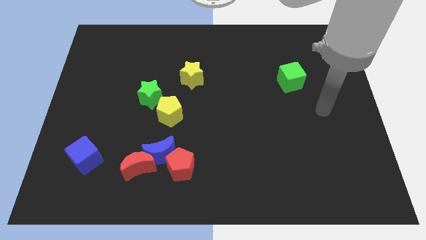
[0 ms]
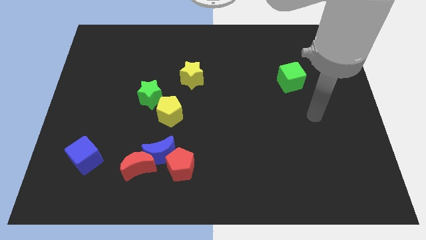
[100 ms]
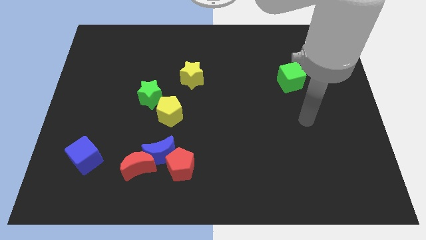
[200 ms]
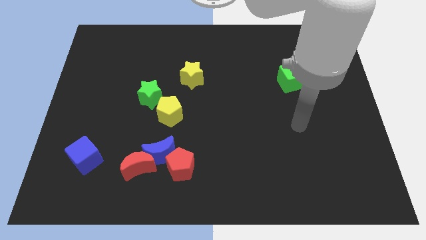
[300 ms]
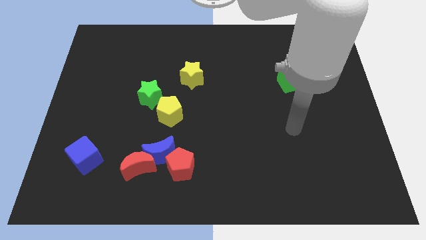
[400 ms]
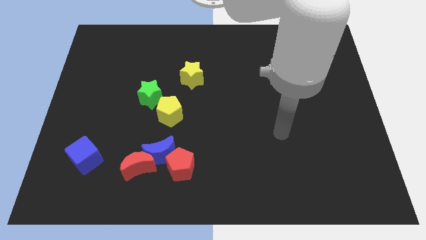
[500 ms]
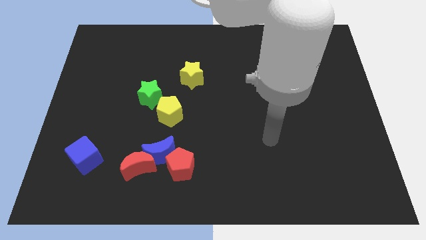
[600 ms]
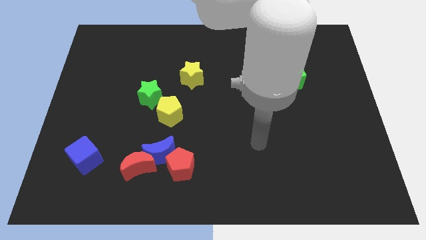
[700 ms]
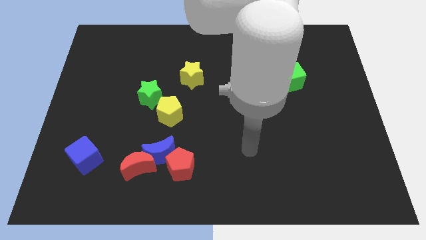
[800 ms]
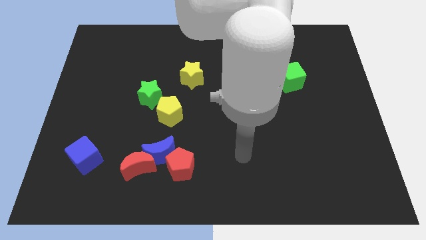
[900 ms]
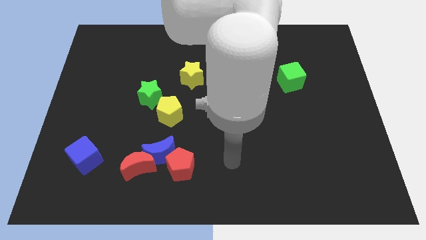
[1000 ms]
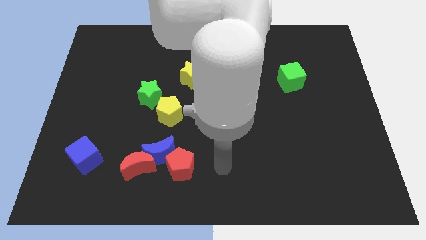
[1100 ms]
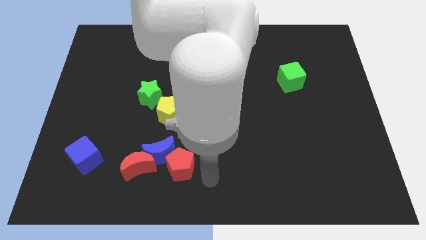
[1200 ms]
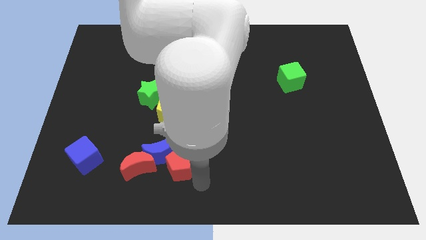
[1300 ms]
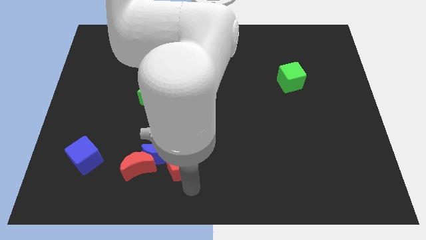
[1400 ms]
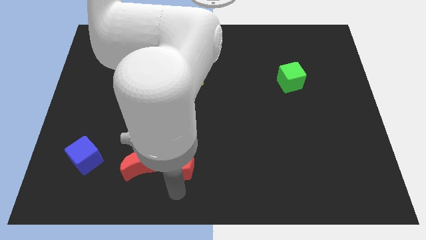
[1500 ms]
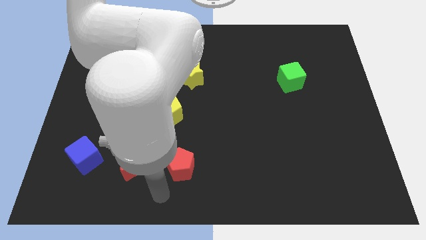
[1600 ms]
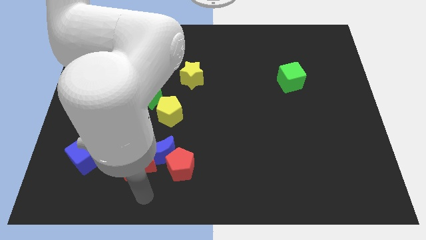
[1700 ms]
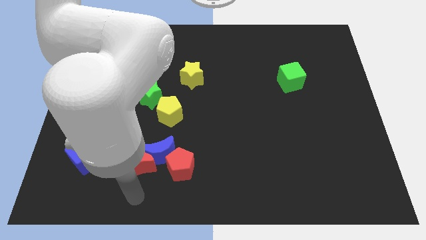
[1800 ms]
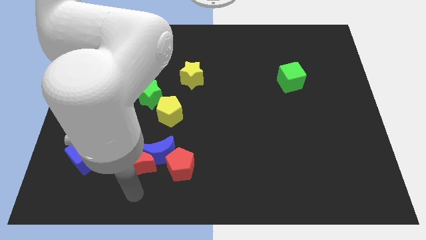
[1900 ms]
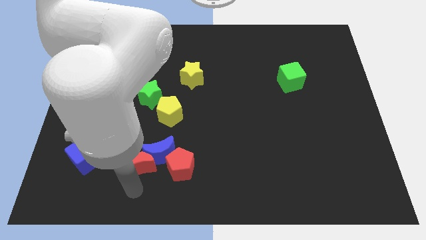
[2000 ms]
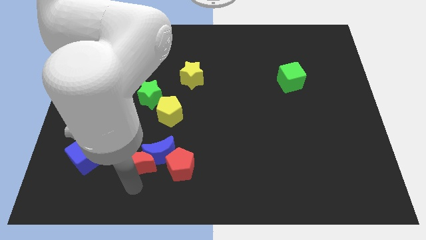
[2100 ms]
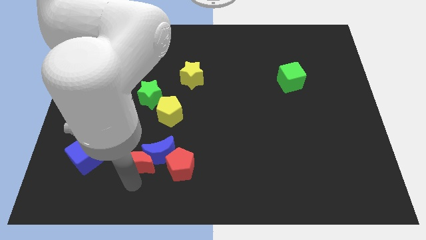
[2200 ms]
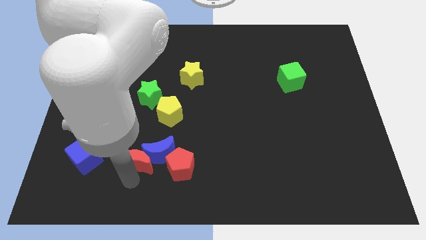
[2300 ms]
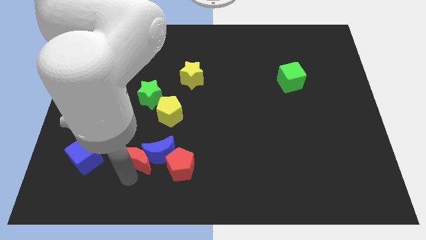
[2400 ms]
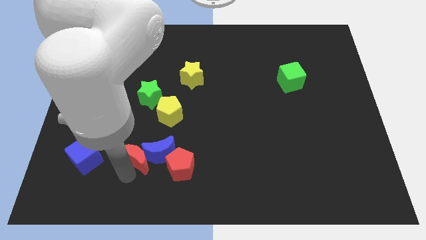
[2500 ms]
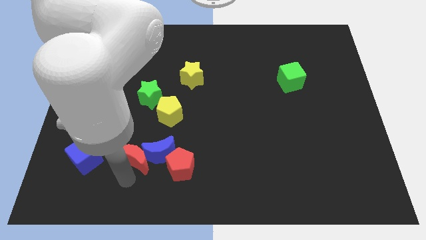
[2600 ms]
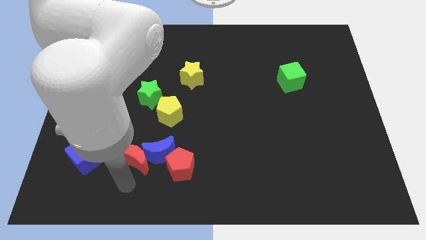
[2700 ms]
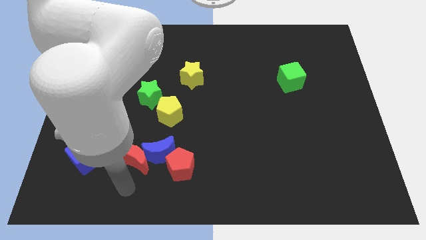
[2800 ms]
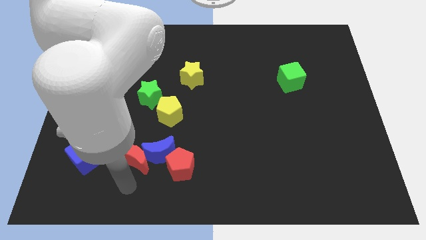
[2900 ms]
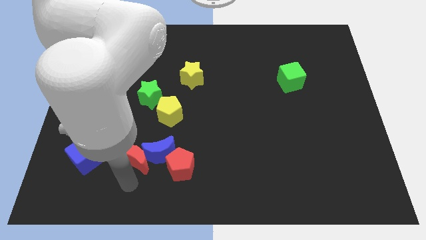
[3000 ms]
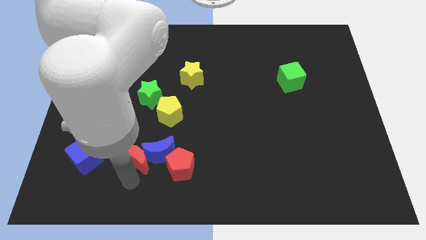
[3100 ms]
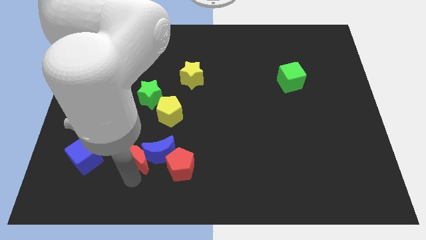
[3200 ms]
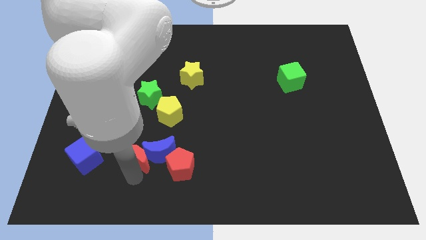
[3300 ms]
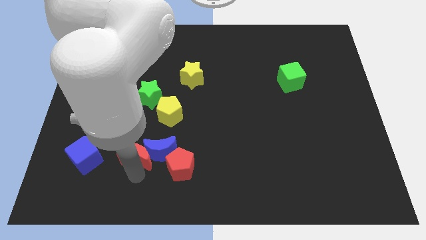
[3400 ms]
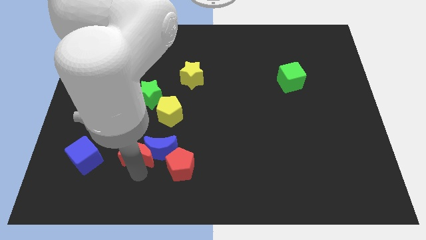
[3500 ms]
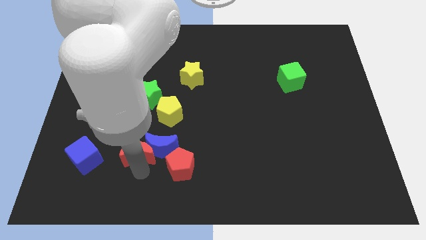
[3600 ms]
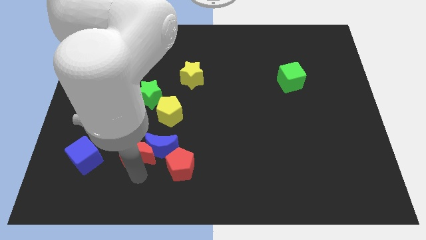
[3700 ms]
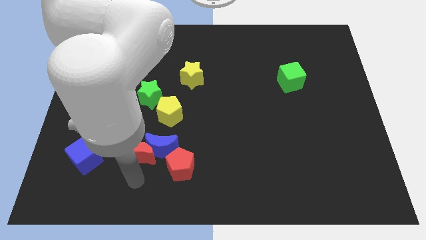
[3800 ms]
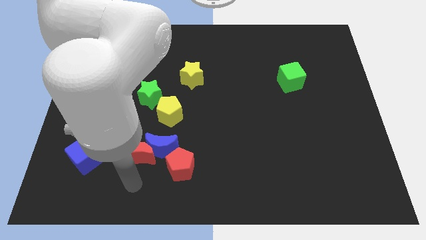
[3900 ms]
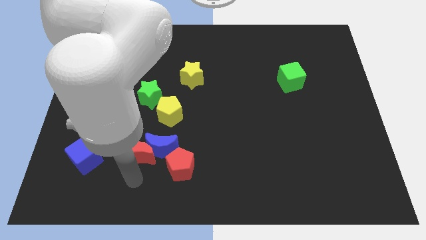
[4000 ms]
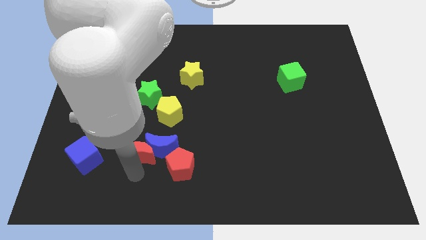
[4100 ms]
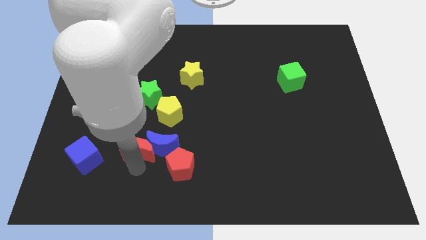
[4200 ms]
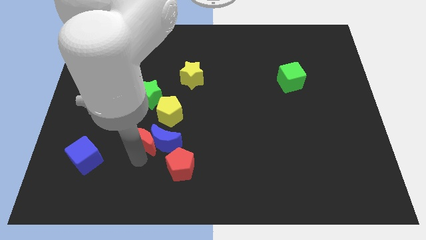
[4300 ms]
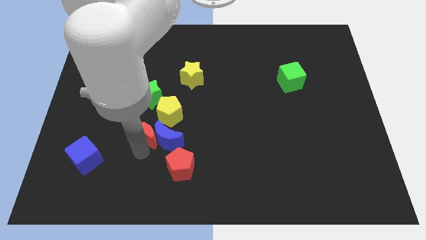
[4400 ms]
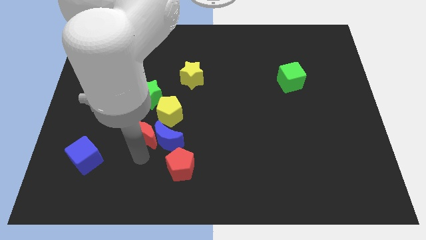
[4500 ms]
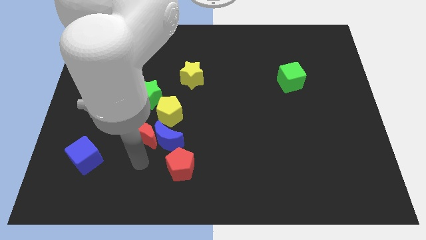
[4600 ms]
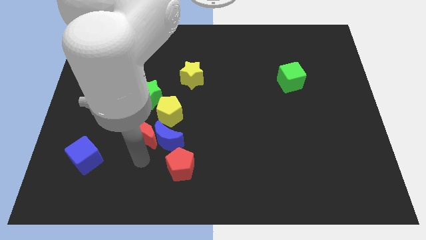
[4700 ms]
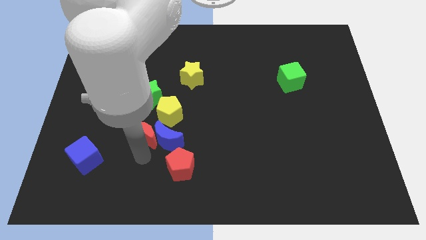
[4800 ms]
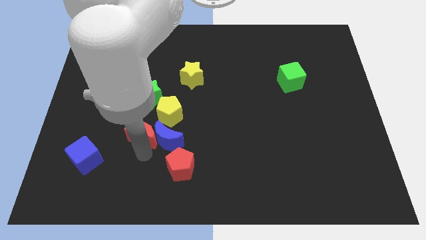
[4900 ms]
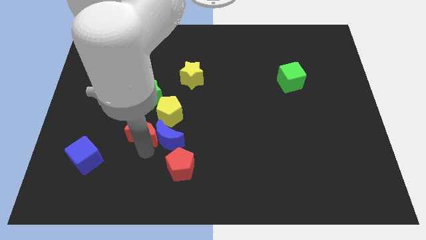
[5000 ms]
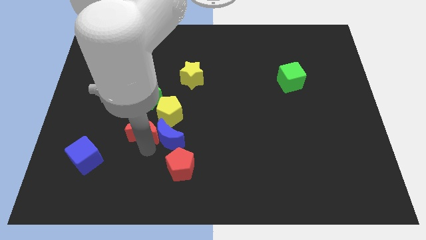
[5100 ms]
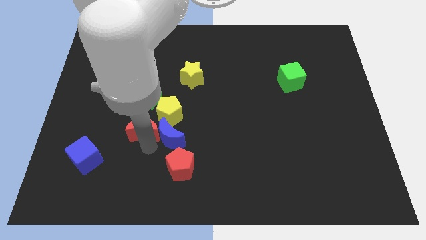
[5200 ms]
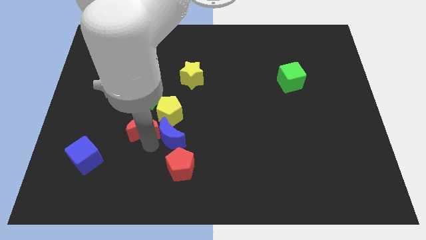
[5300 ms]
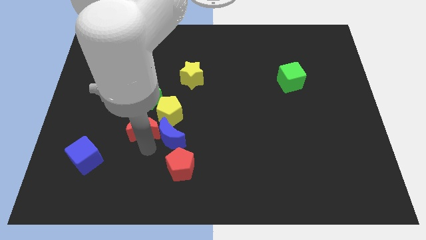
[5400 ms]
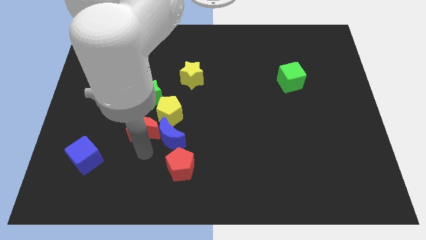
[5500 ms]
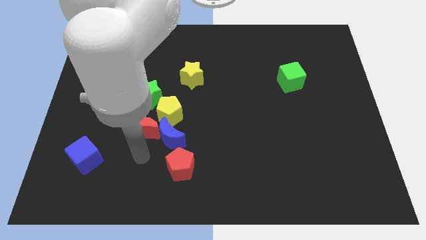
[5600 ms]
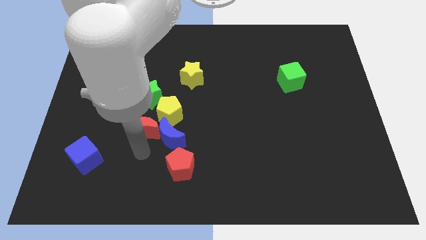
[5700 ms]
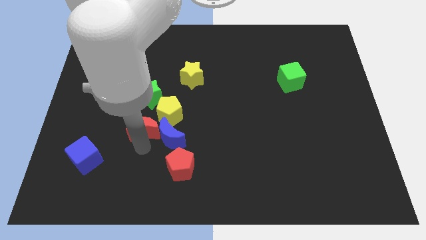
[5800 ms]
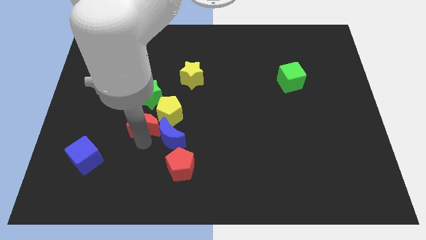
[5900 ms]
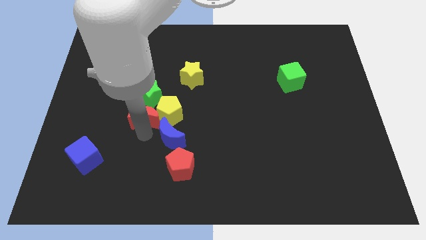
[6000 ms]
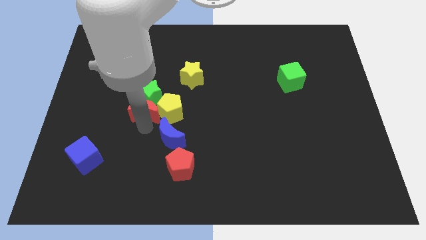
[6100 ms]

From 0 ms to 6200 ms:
push the red moon to the green star

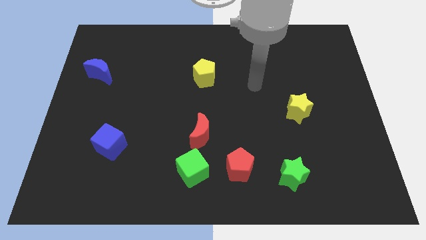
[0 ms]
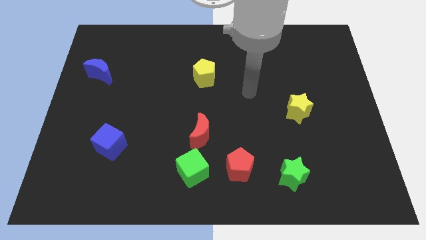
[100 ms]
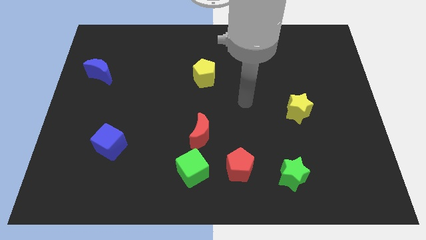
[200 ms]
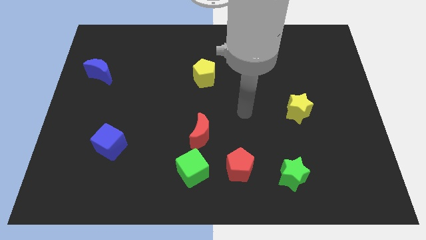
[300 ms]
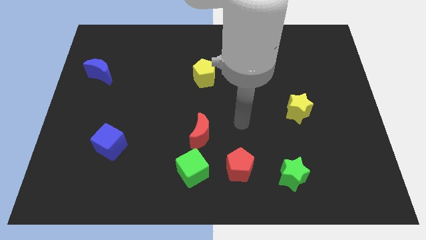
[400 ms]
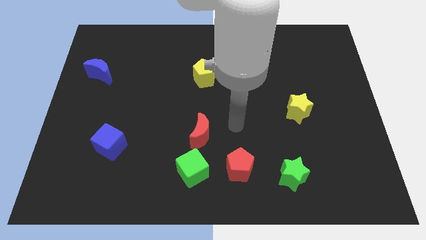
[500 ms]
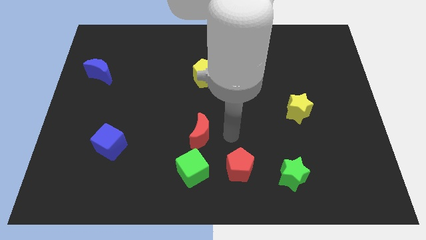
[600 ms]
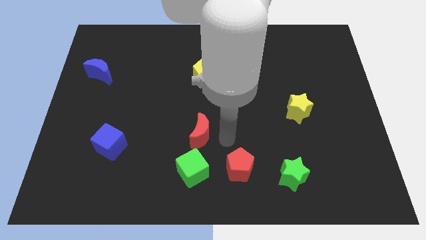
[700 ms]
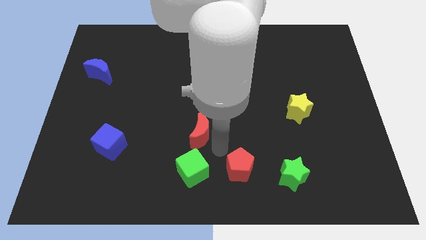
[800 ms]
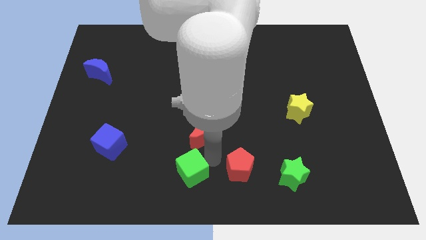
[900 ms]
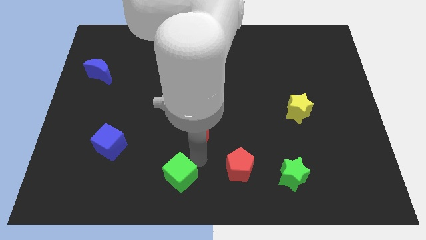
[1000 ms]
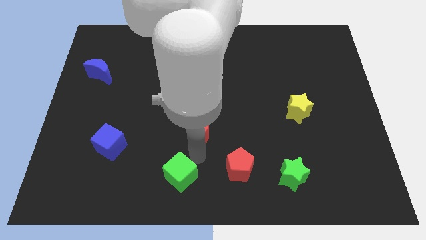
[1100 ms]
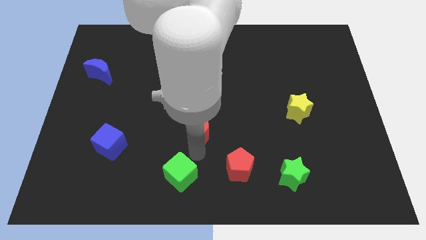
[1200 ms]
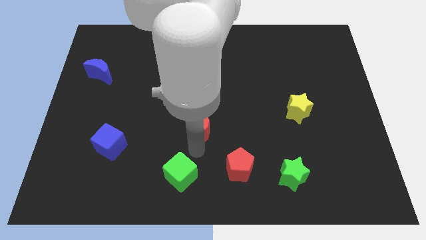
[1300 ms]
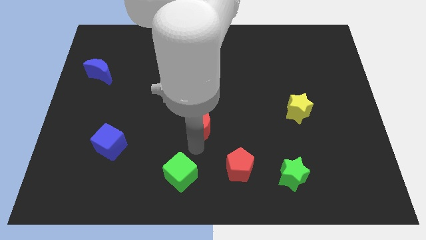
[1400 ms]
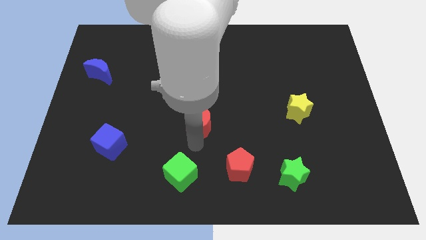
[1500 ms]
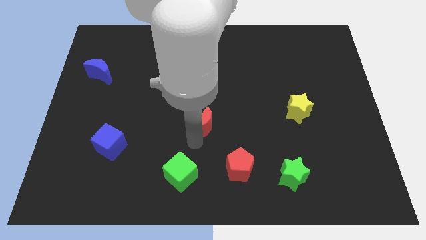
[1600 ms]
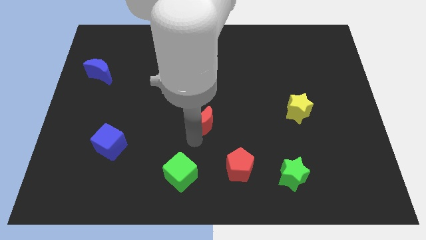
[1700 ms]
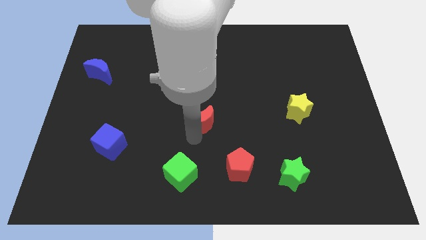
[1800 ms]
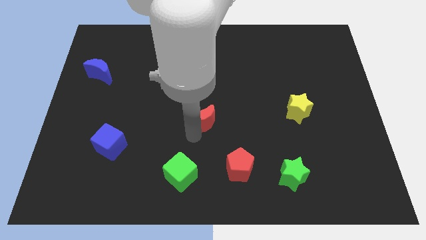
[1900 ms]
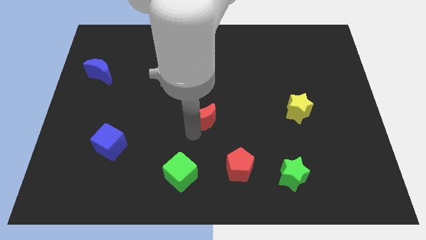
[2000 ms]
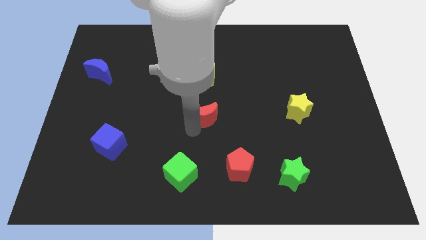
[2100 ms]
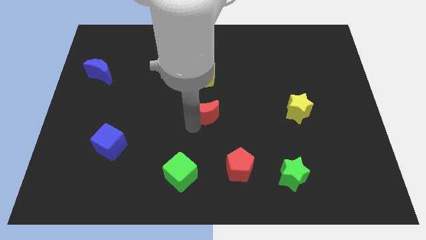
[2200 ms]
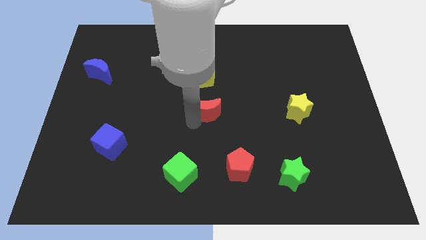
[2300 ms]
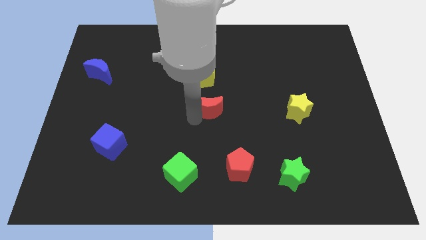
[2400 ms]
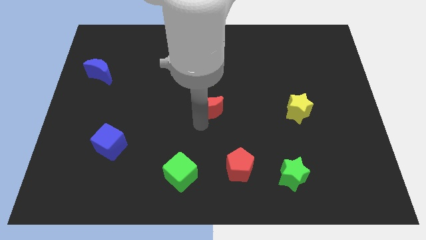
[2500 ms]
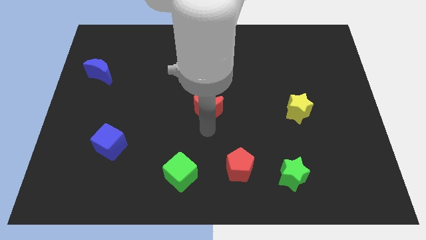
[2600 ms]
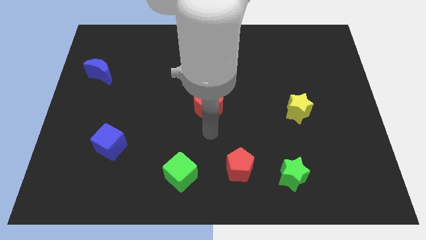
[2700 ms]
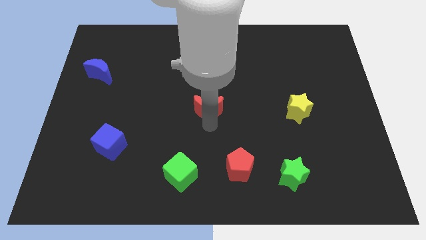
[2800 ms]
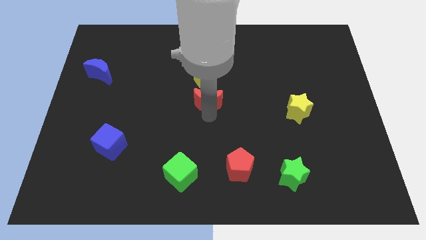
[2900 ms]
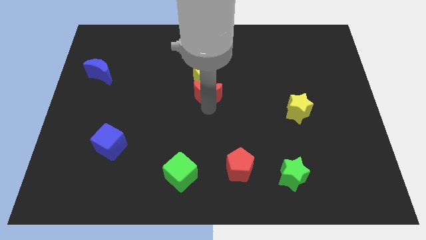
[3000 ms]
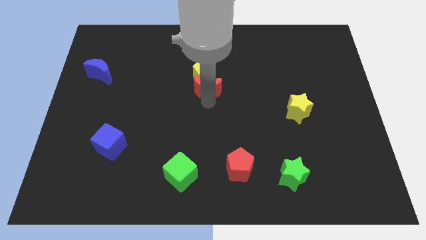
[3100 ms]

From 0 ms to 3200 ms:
slide the red moon to the yellow pentagon
